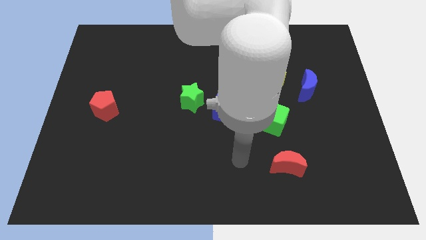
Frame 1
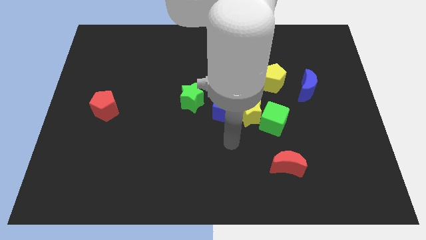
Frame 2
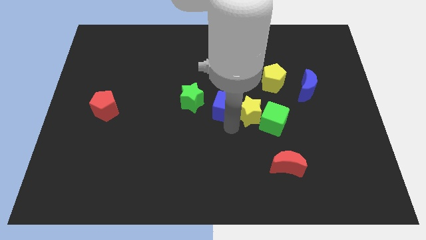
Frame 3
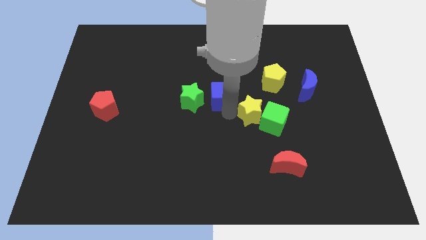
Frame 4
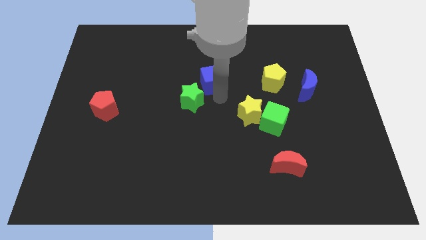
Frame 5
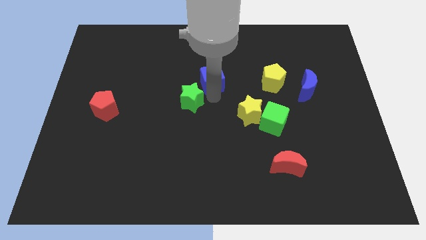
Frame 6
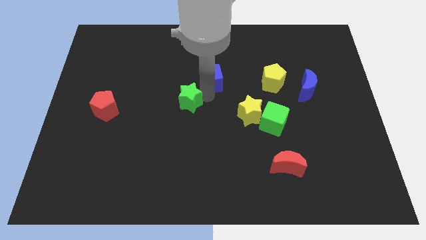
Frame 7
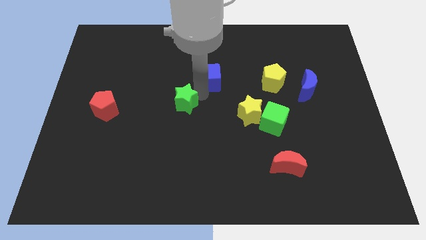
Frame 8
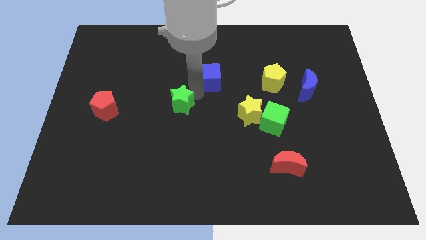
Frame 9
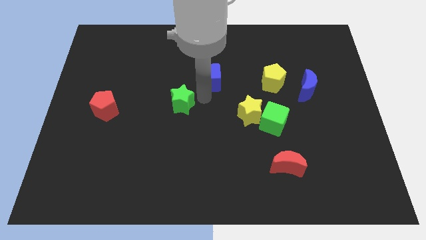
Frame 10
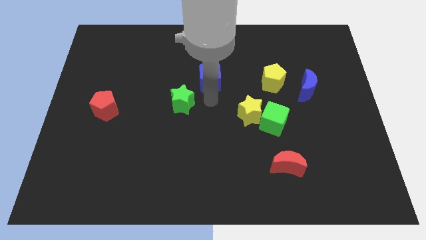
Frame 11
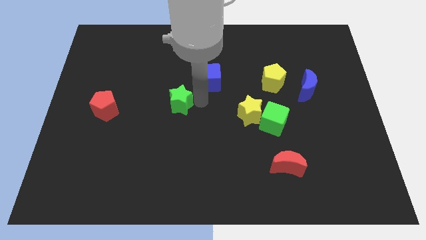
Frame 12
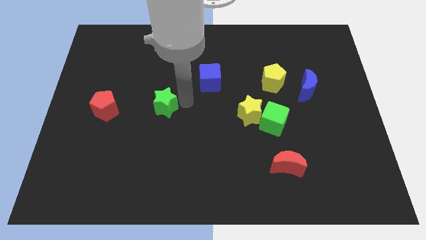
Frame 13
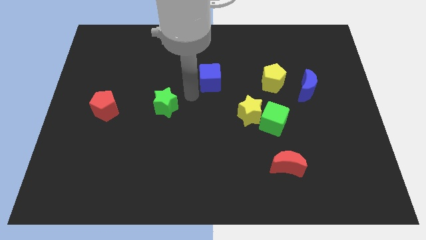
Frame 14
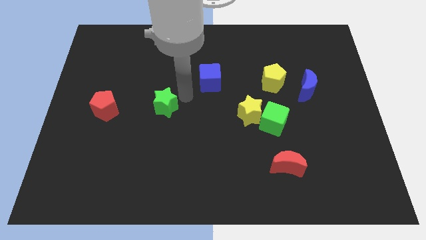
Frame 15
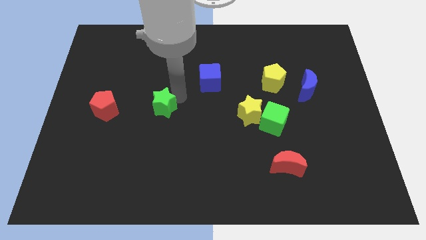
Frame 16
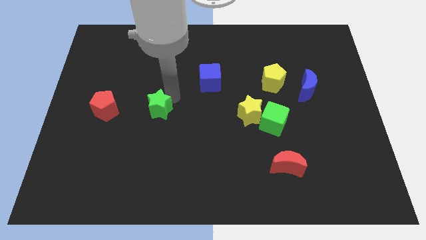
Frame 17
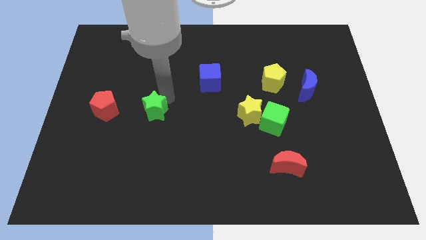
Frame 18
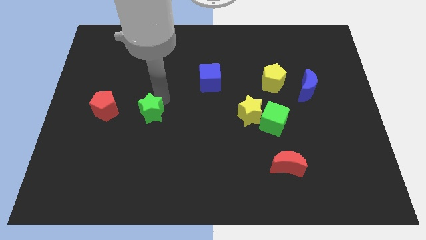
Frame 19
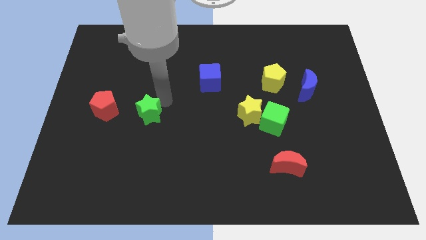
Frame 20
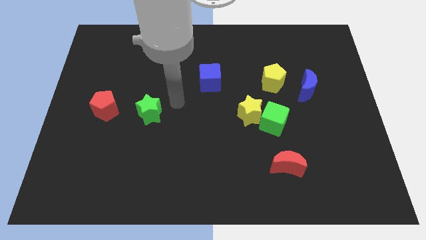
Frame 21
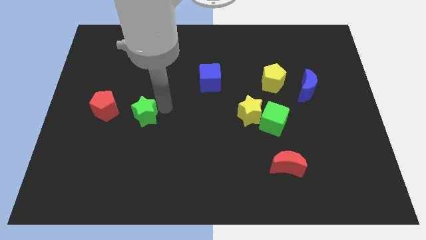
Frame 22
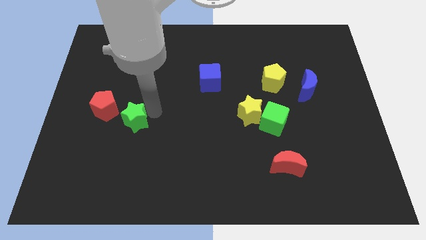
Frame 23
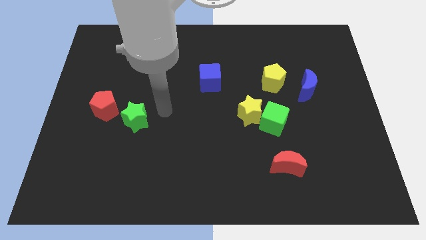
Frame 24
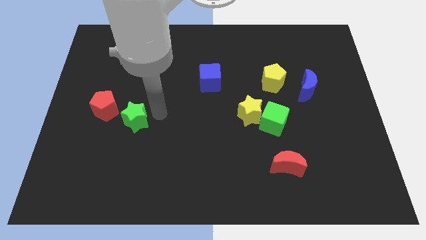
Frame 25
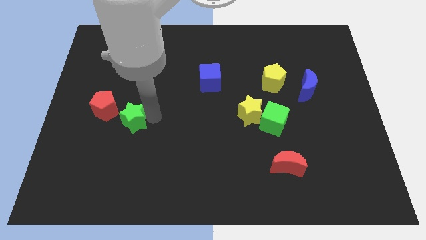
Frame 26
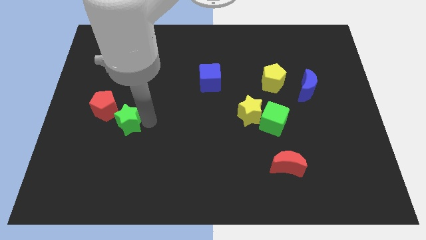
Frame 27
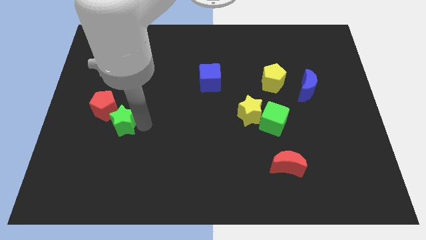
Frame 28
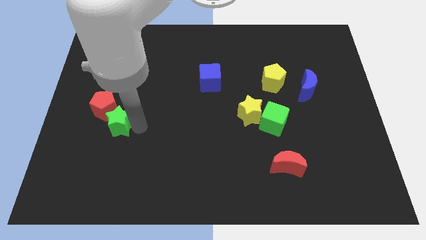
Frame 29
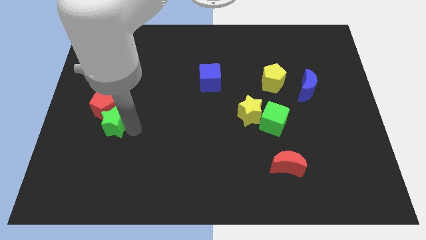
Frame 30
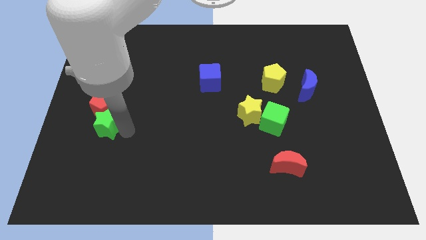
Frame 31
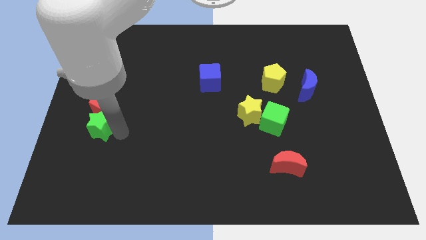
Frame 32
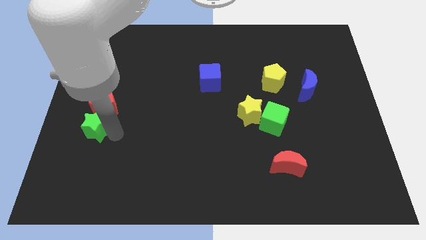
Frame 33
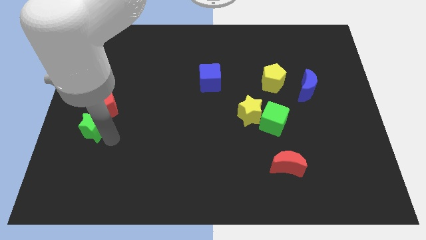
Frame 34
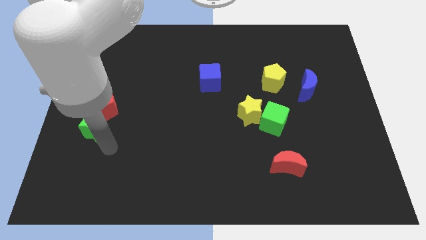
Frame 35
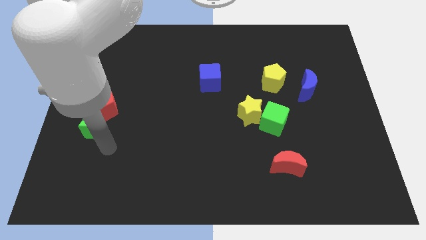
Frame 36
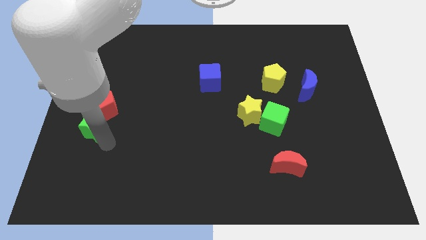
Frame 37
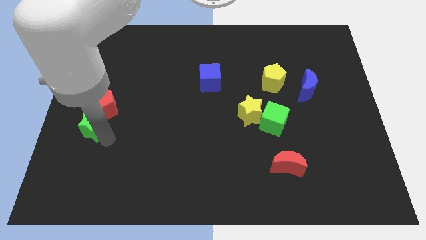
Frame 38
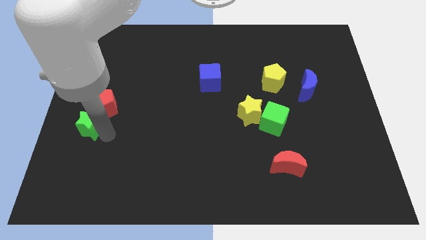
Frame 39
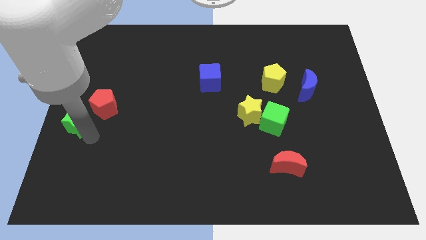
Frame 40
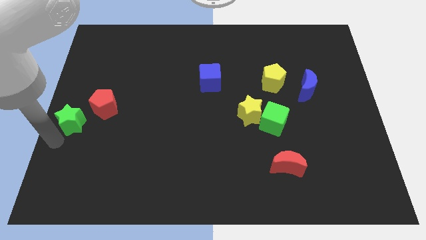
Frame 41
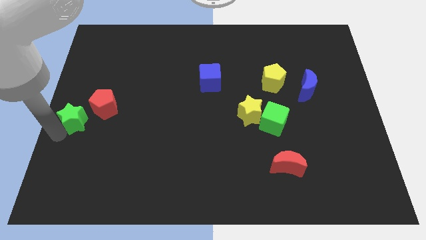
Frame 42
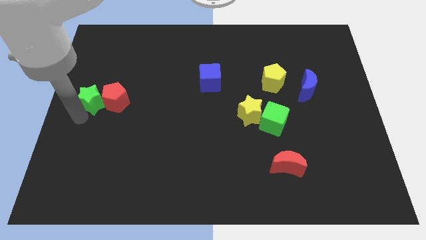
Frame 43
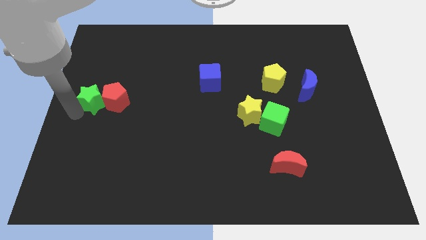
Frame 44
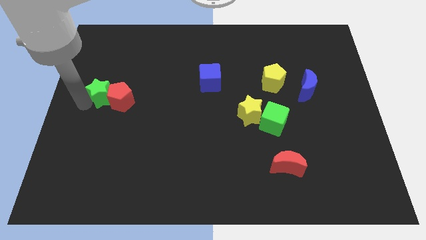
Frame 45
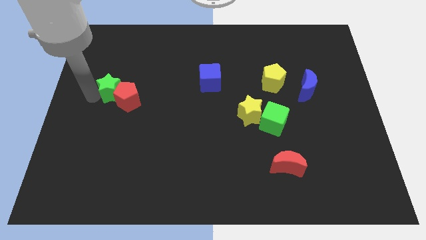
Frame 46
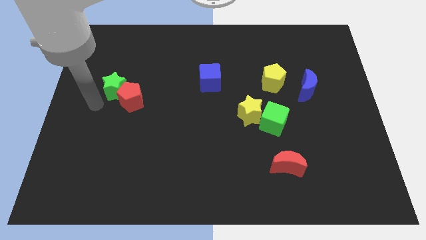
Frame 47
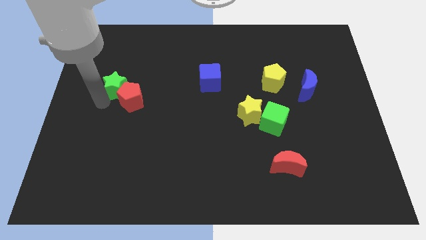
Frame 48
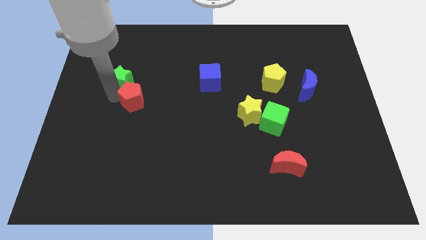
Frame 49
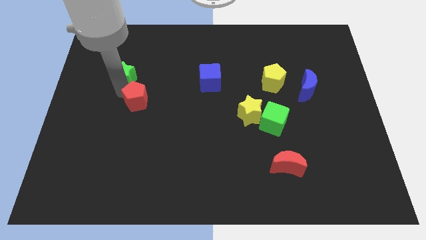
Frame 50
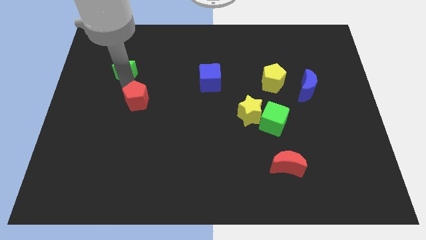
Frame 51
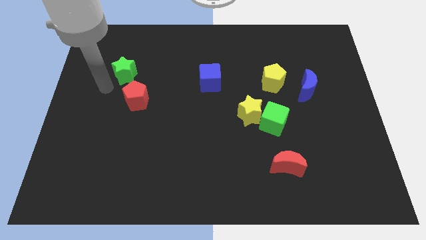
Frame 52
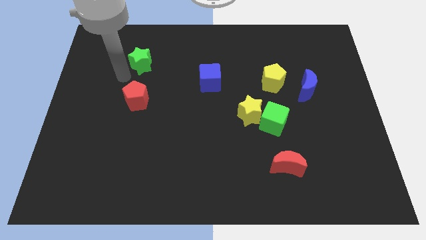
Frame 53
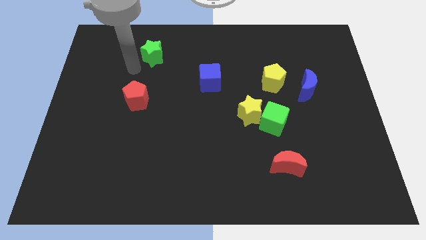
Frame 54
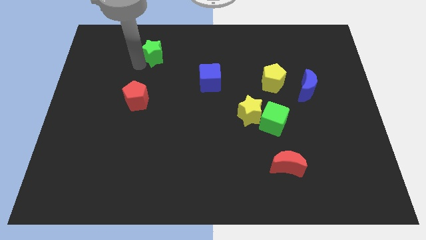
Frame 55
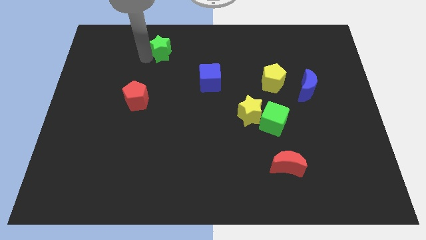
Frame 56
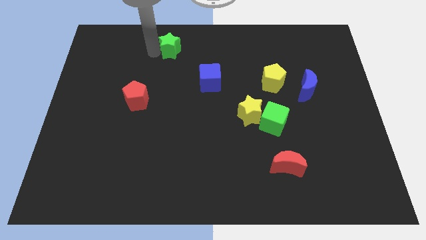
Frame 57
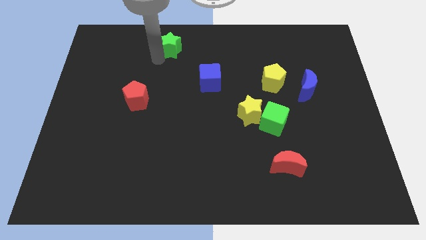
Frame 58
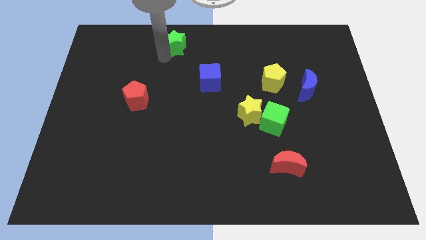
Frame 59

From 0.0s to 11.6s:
put the green star to the towards your base

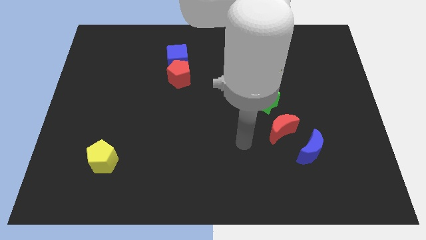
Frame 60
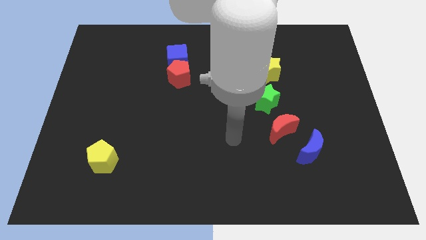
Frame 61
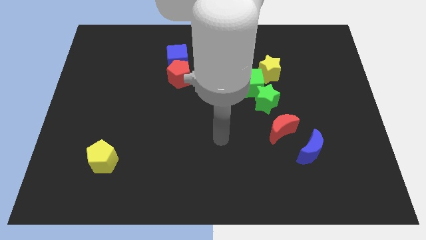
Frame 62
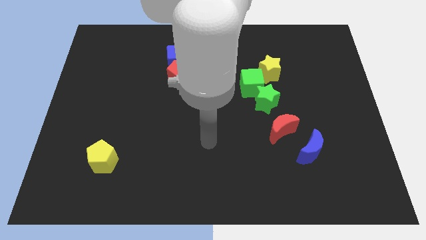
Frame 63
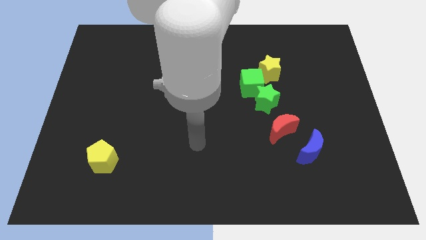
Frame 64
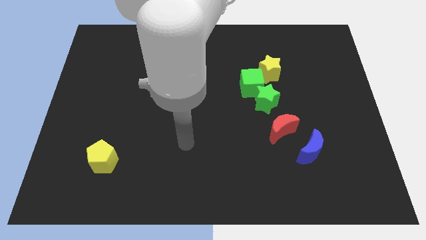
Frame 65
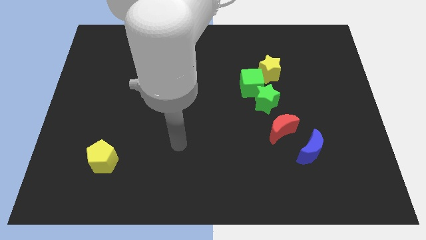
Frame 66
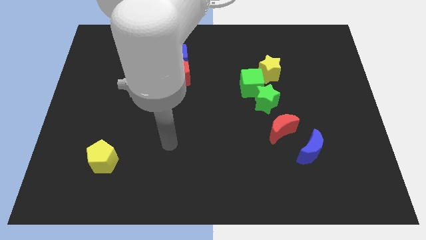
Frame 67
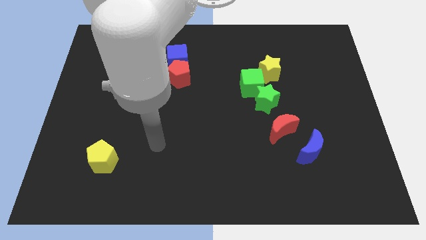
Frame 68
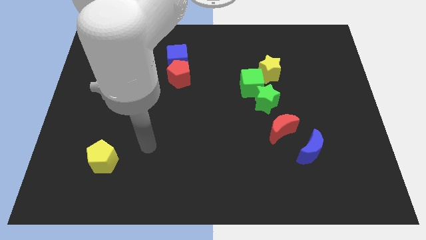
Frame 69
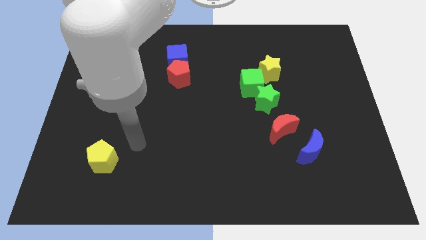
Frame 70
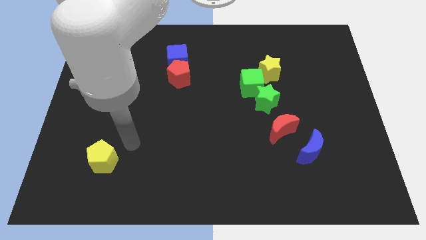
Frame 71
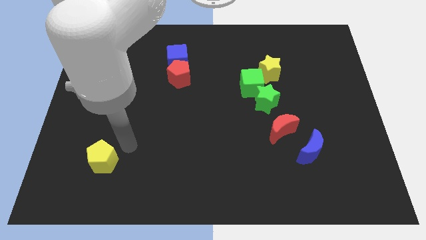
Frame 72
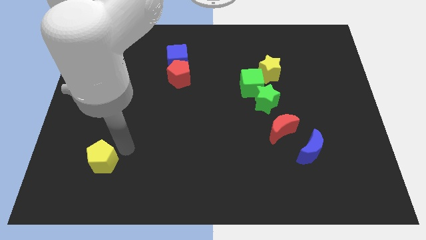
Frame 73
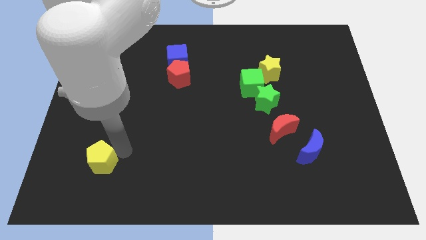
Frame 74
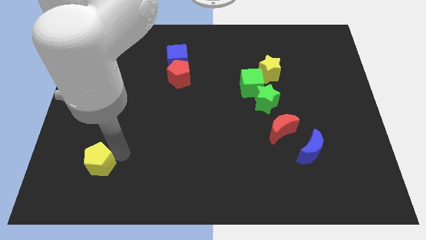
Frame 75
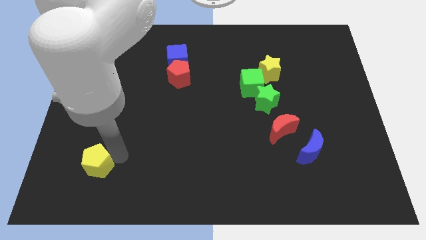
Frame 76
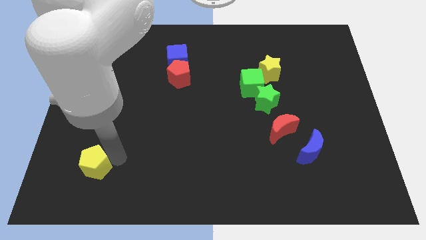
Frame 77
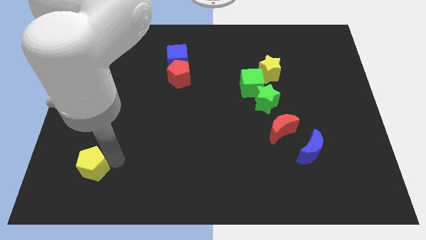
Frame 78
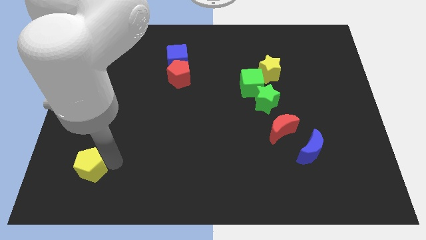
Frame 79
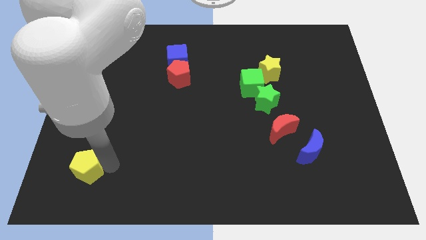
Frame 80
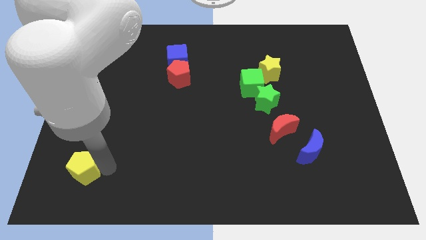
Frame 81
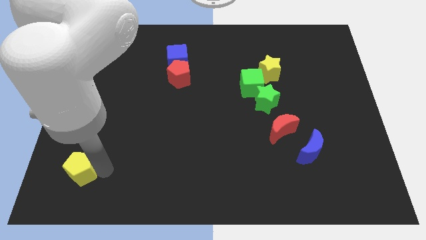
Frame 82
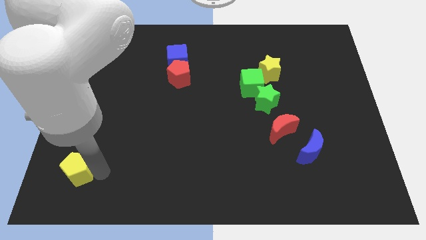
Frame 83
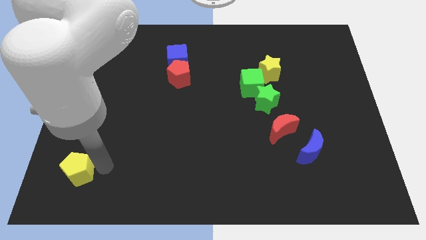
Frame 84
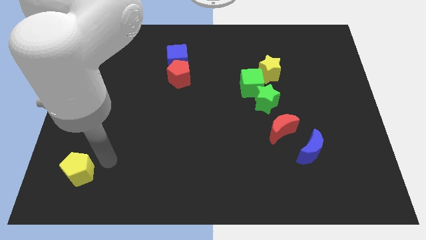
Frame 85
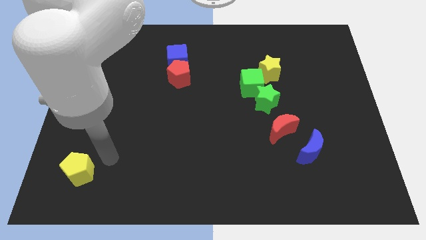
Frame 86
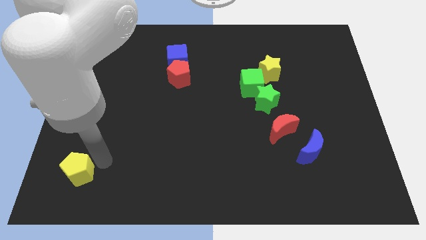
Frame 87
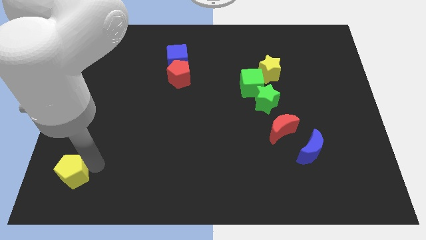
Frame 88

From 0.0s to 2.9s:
put the yellow pentagon to the bottom left of the board
